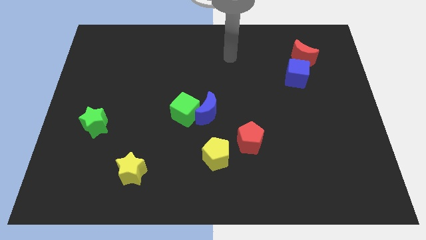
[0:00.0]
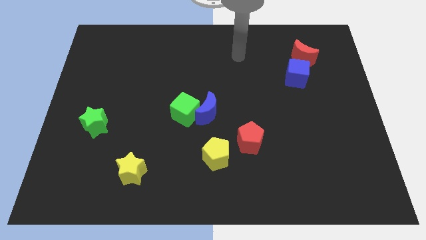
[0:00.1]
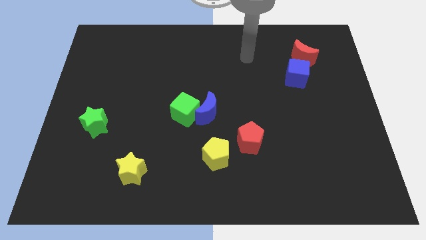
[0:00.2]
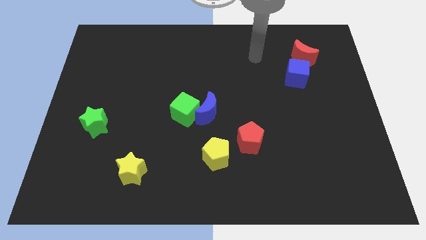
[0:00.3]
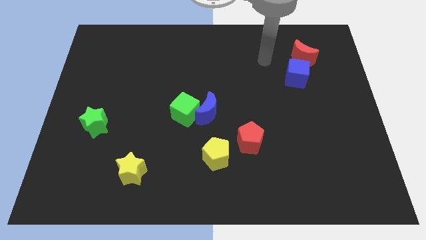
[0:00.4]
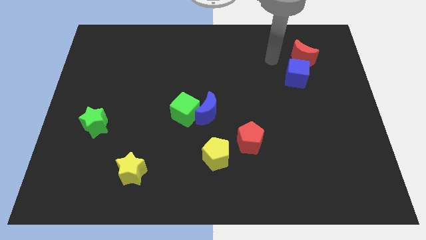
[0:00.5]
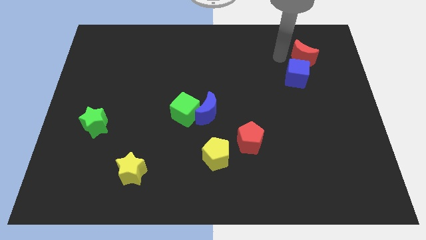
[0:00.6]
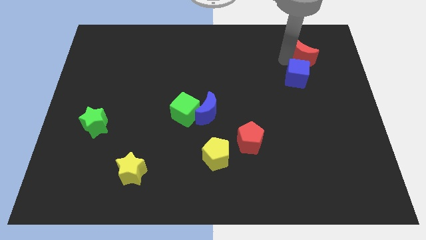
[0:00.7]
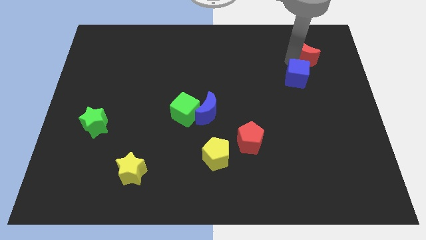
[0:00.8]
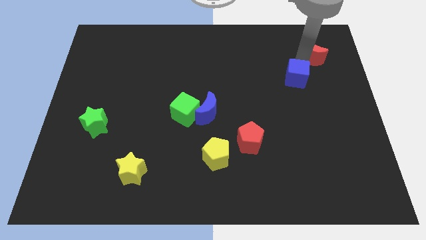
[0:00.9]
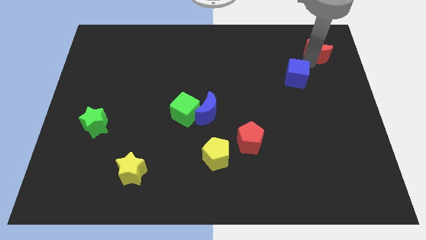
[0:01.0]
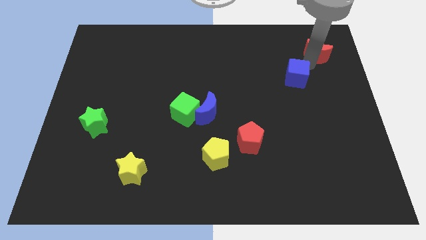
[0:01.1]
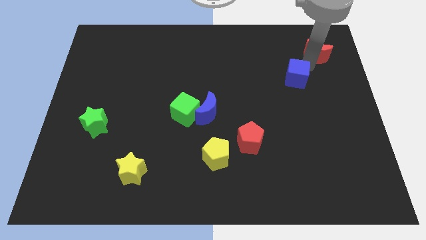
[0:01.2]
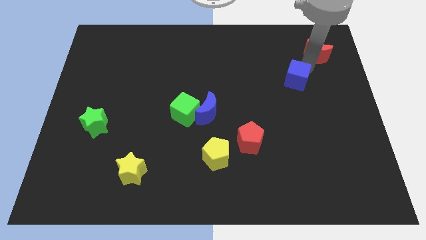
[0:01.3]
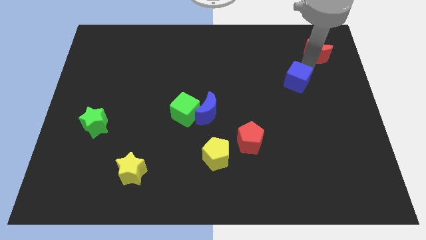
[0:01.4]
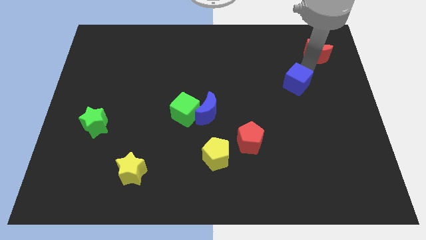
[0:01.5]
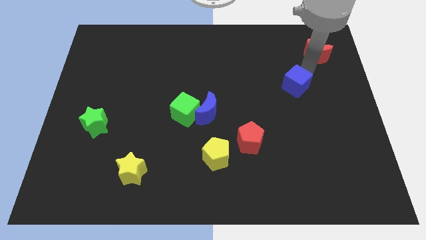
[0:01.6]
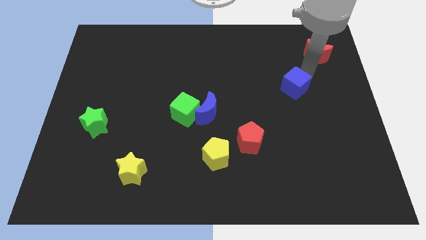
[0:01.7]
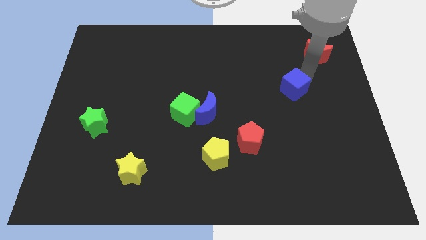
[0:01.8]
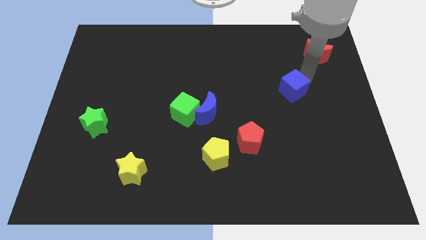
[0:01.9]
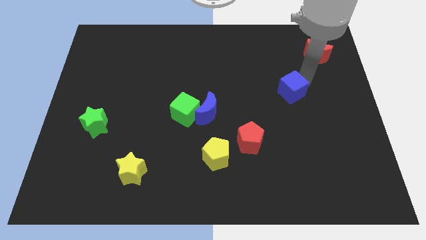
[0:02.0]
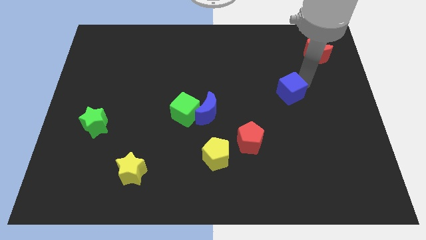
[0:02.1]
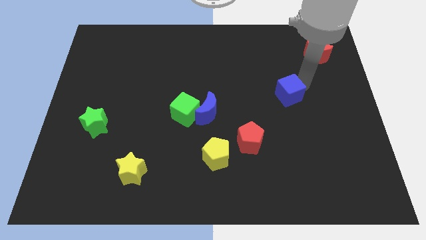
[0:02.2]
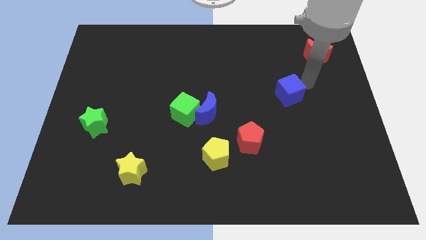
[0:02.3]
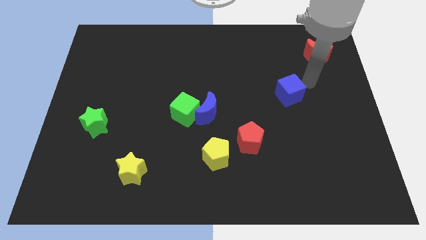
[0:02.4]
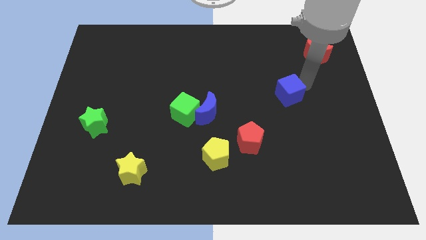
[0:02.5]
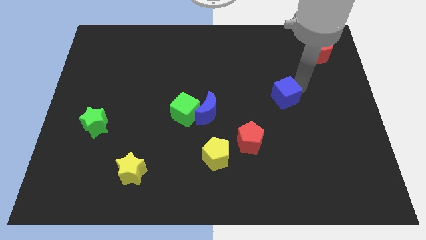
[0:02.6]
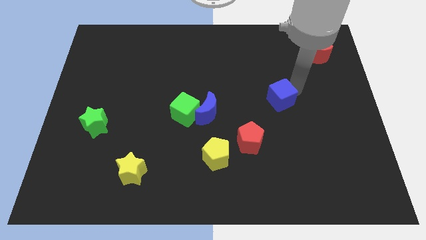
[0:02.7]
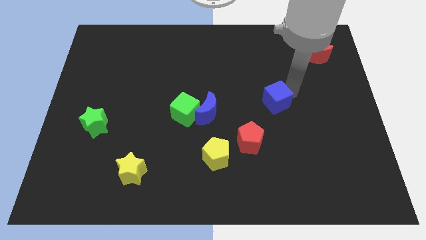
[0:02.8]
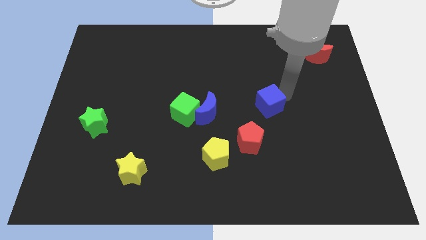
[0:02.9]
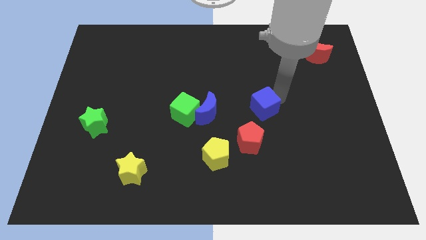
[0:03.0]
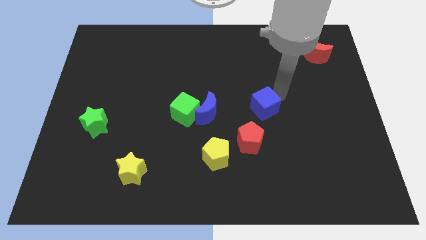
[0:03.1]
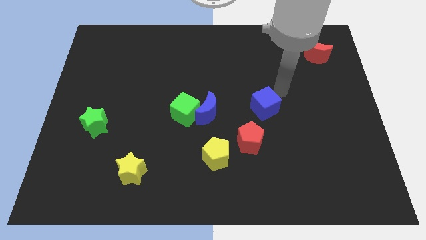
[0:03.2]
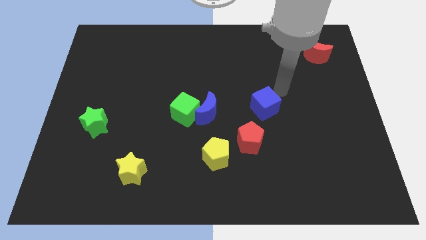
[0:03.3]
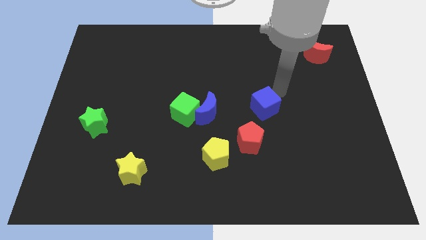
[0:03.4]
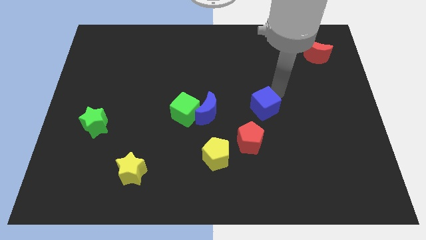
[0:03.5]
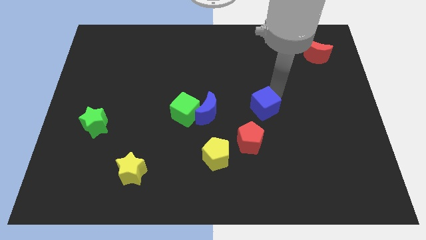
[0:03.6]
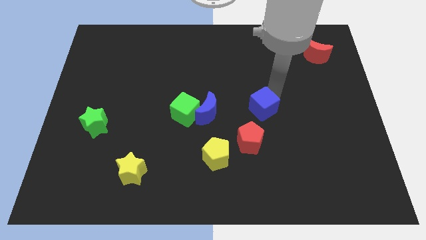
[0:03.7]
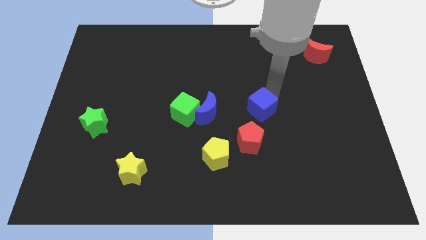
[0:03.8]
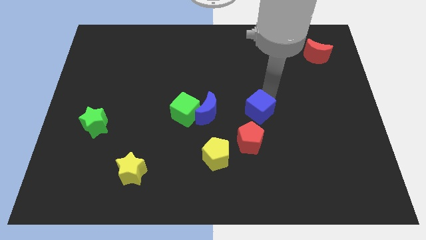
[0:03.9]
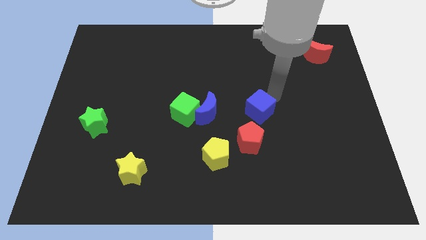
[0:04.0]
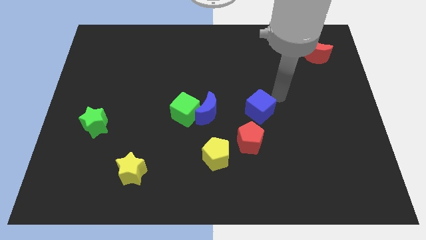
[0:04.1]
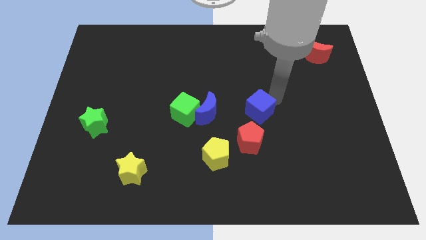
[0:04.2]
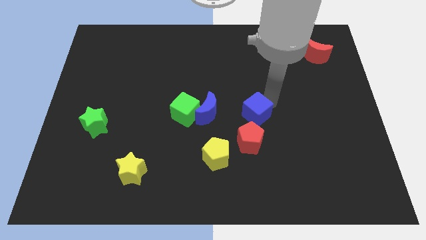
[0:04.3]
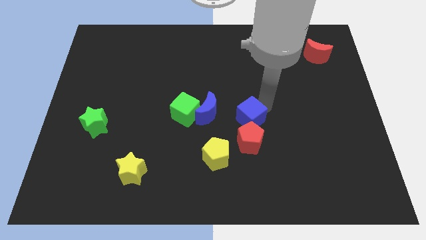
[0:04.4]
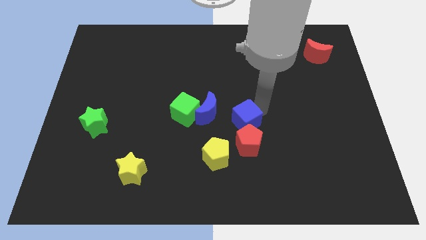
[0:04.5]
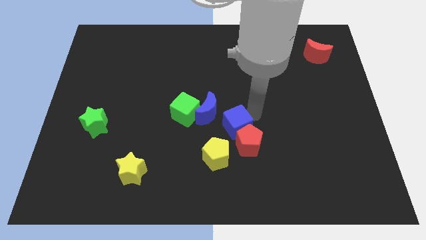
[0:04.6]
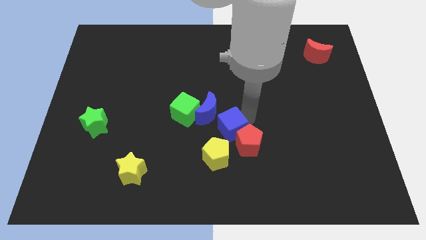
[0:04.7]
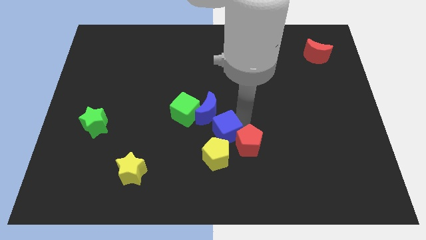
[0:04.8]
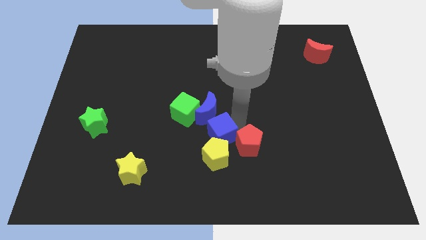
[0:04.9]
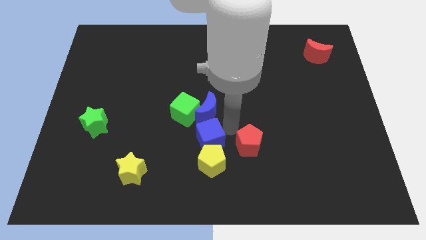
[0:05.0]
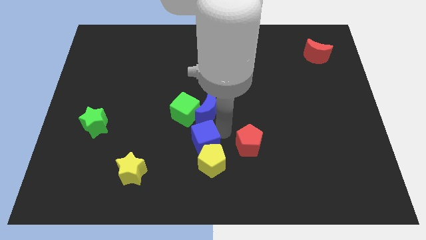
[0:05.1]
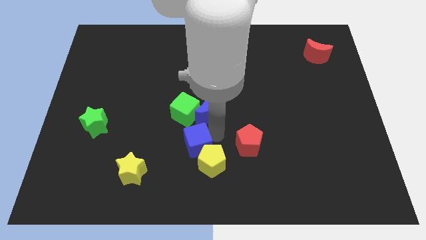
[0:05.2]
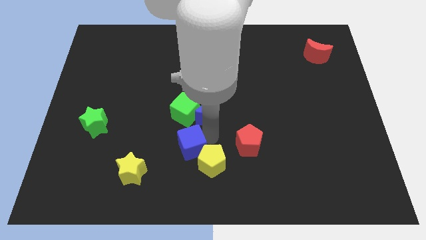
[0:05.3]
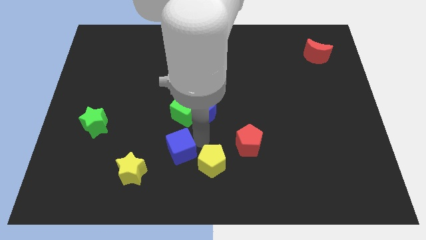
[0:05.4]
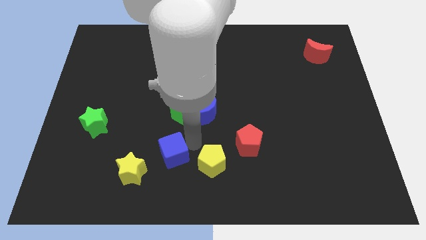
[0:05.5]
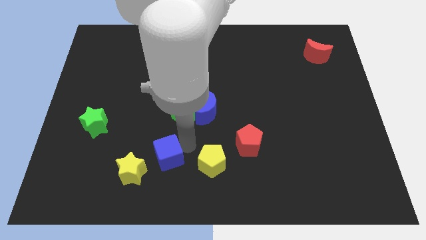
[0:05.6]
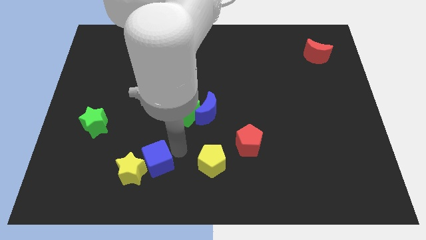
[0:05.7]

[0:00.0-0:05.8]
put the blue cube next to the yellow star

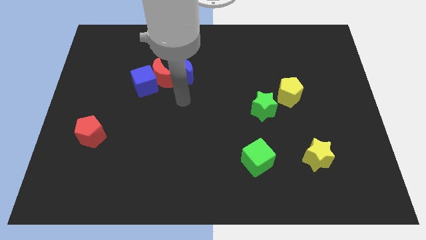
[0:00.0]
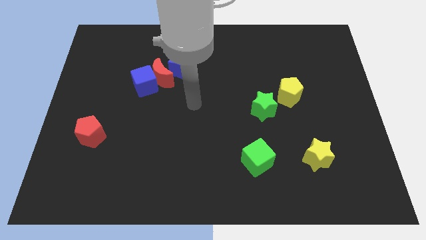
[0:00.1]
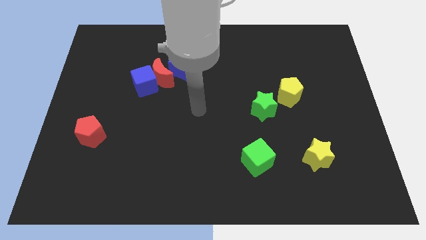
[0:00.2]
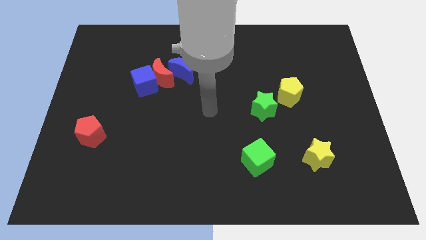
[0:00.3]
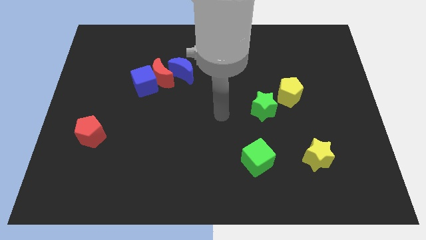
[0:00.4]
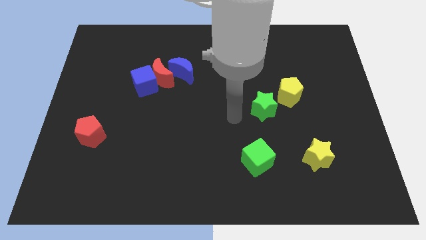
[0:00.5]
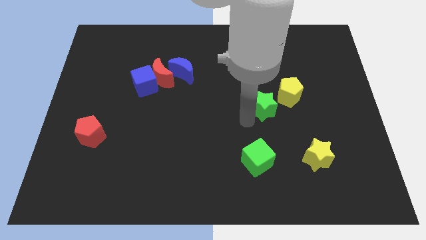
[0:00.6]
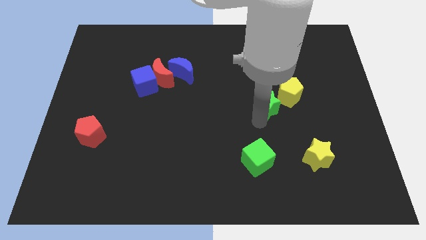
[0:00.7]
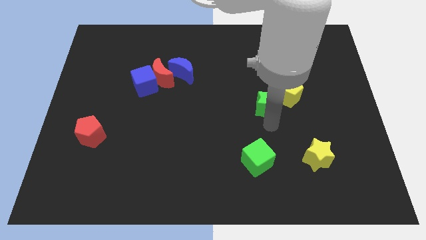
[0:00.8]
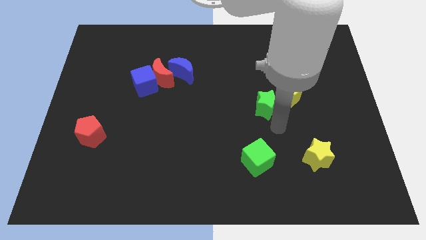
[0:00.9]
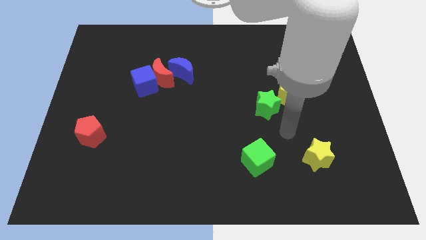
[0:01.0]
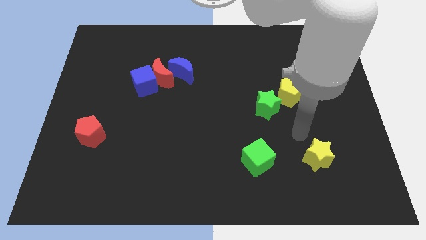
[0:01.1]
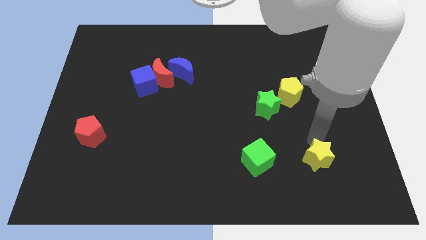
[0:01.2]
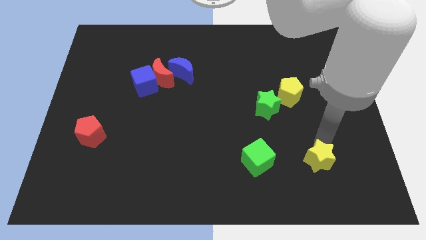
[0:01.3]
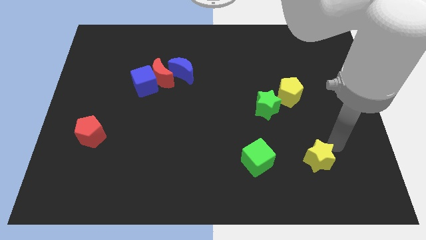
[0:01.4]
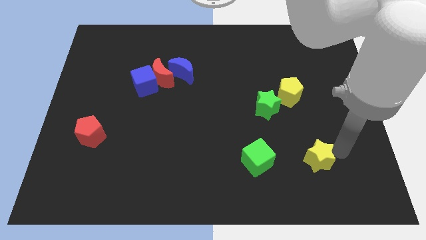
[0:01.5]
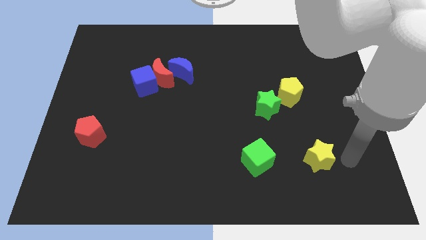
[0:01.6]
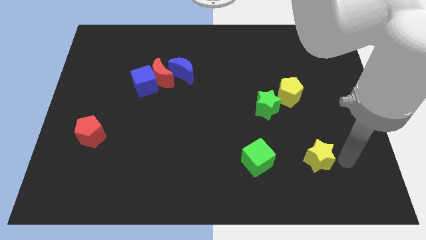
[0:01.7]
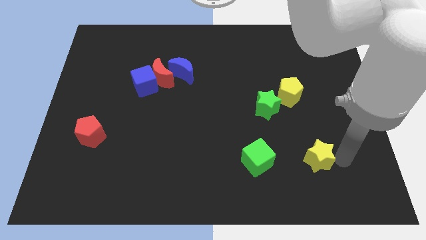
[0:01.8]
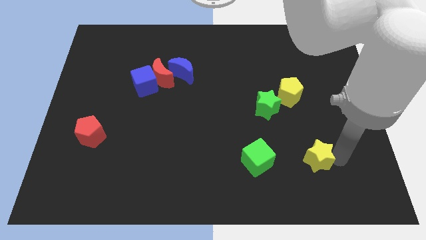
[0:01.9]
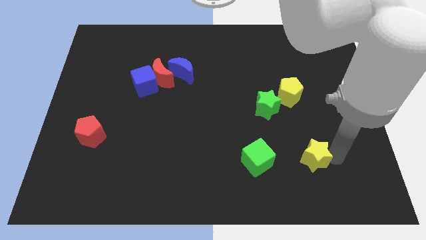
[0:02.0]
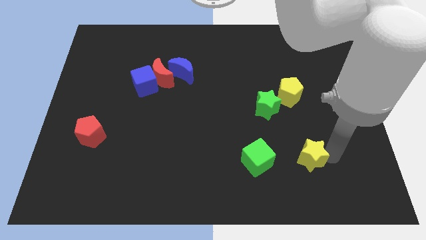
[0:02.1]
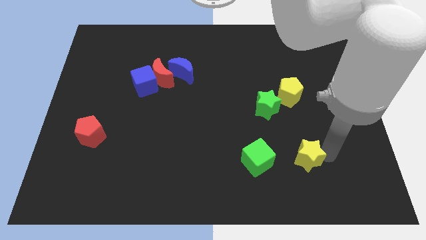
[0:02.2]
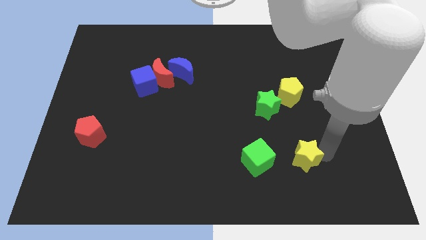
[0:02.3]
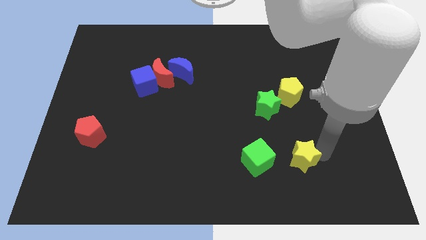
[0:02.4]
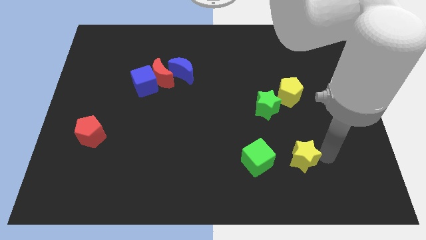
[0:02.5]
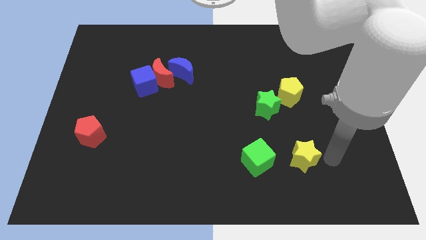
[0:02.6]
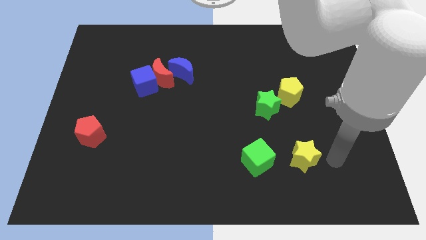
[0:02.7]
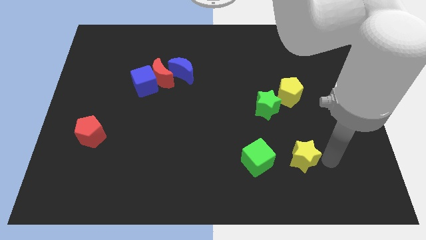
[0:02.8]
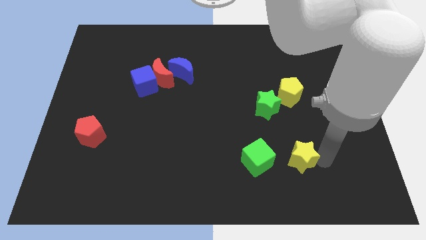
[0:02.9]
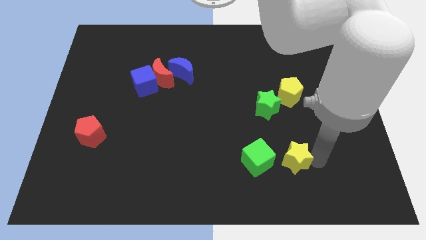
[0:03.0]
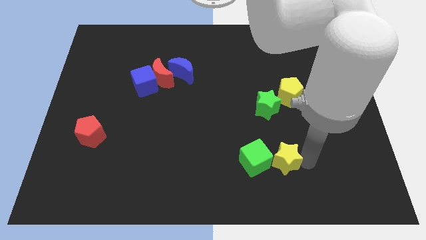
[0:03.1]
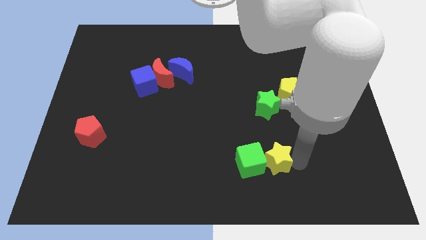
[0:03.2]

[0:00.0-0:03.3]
push the yellow star to the green cube
